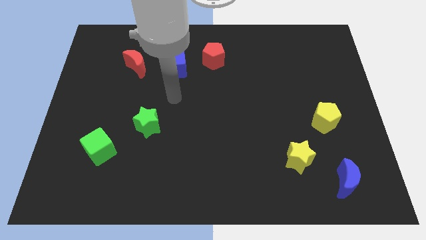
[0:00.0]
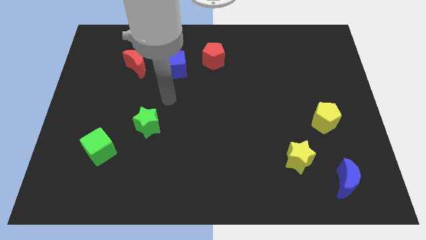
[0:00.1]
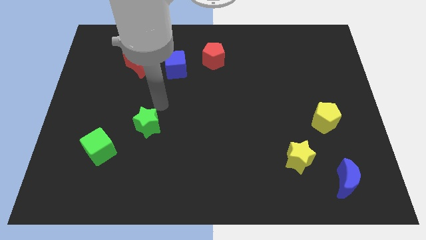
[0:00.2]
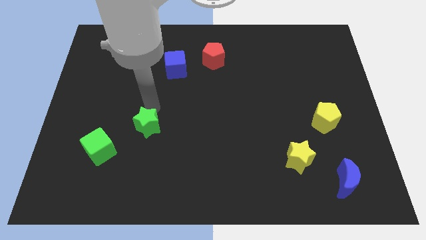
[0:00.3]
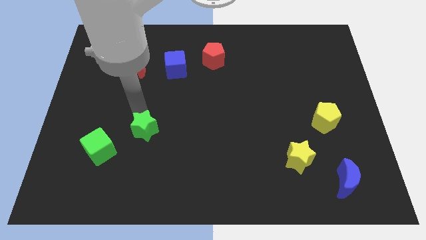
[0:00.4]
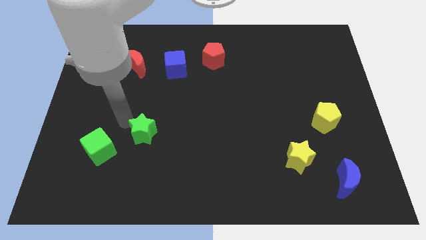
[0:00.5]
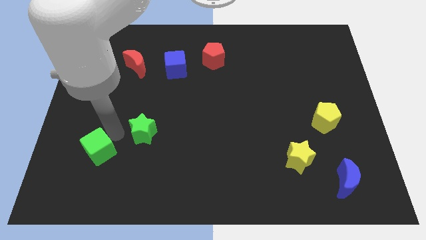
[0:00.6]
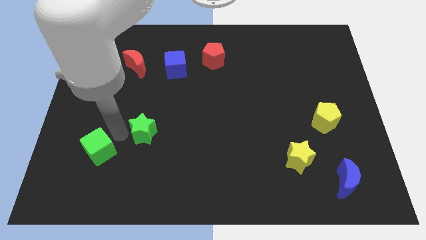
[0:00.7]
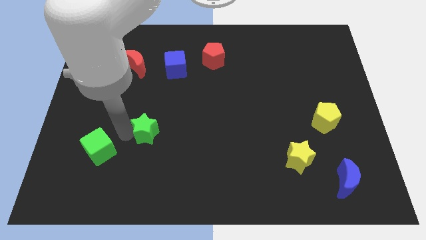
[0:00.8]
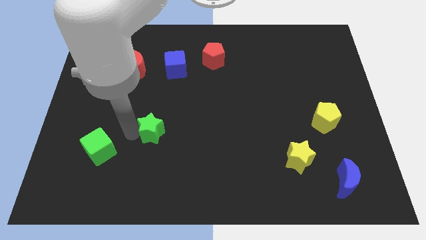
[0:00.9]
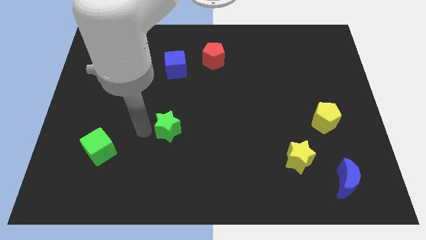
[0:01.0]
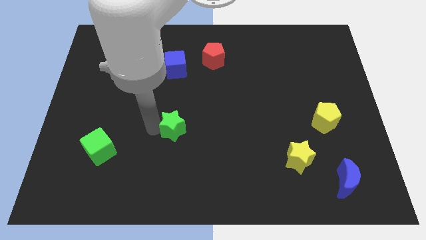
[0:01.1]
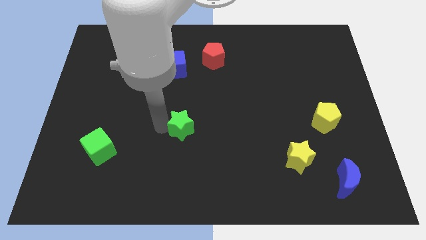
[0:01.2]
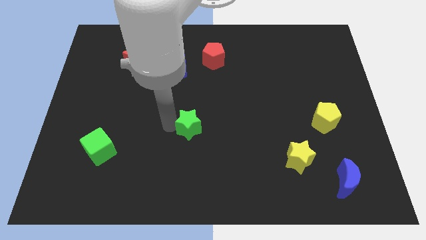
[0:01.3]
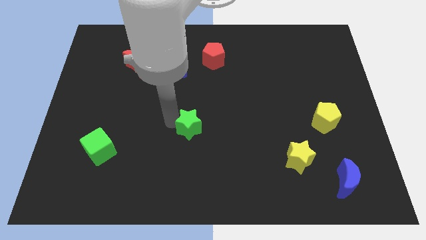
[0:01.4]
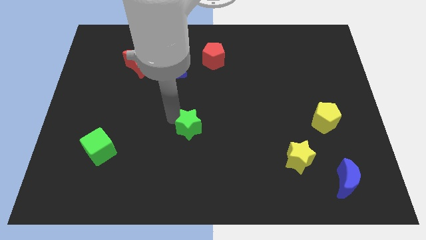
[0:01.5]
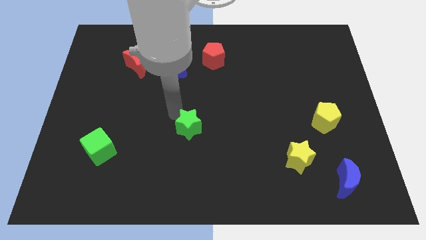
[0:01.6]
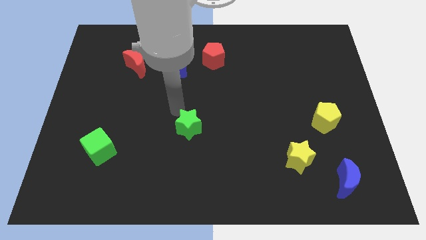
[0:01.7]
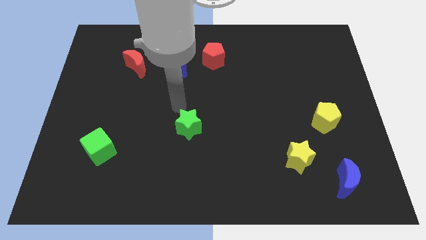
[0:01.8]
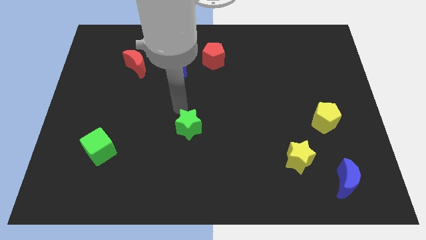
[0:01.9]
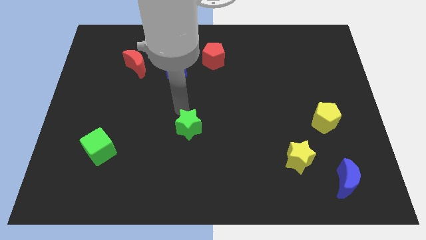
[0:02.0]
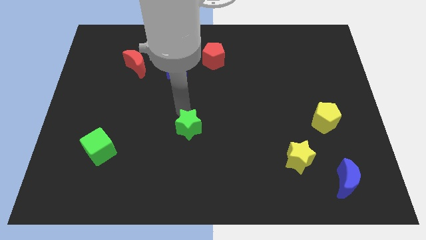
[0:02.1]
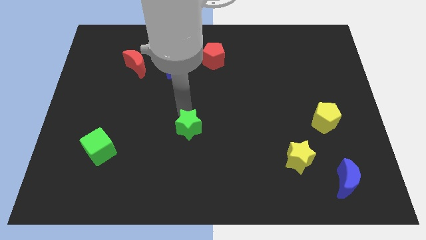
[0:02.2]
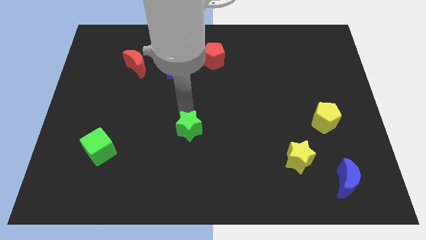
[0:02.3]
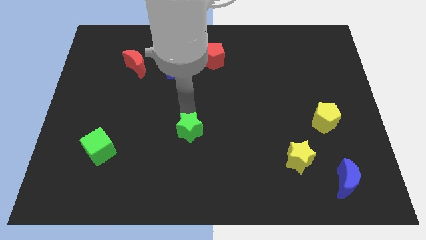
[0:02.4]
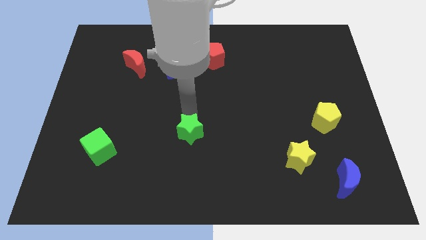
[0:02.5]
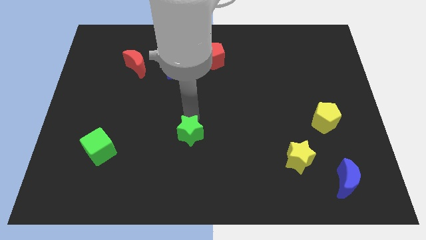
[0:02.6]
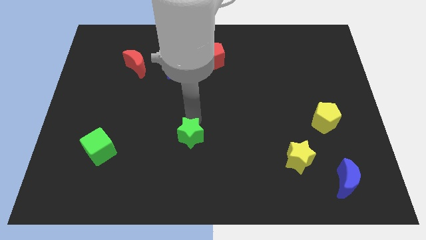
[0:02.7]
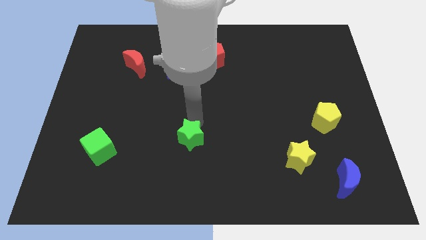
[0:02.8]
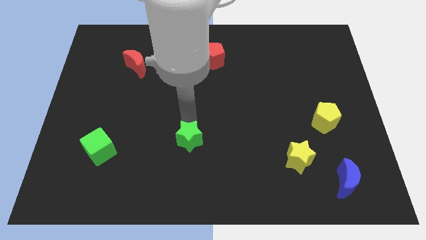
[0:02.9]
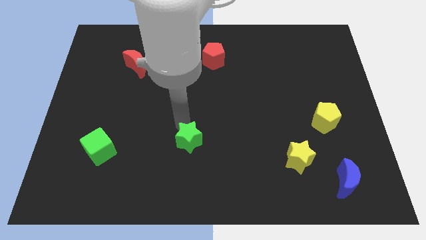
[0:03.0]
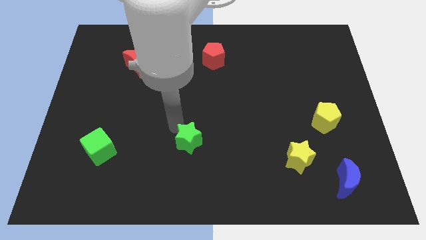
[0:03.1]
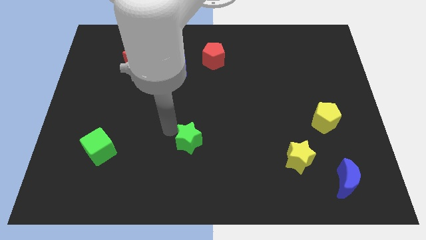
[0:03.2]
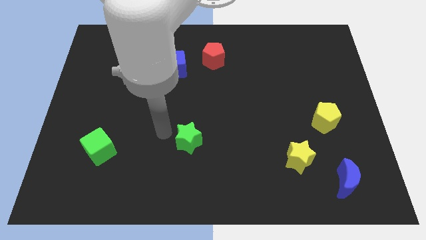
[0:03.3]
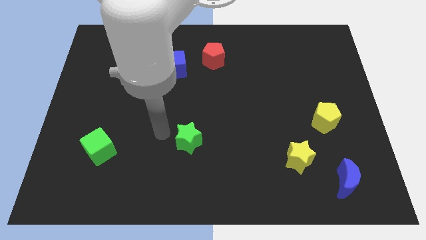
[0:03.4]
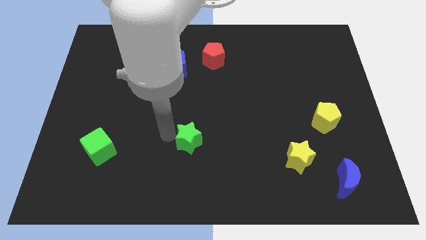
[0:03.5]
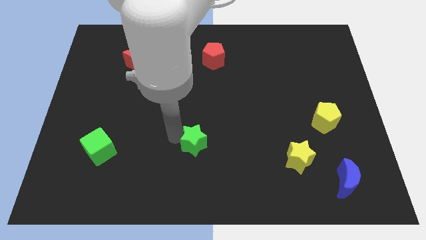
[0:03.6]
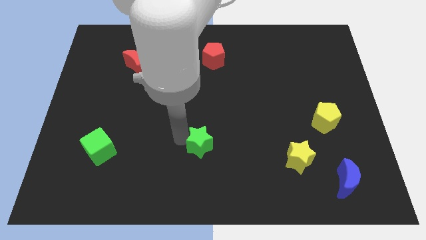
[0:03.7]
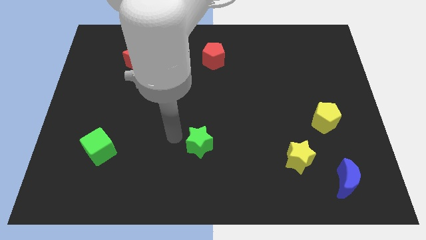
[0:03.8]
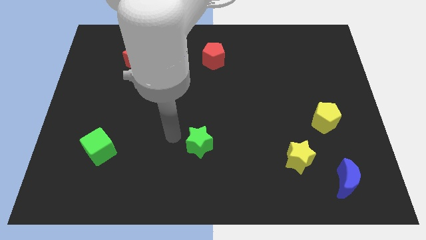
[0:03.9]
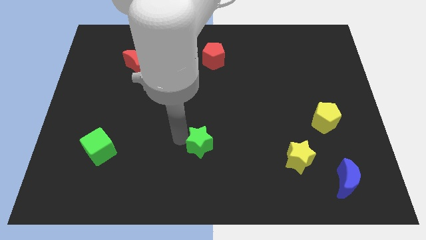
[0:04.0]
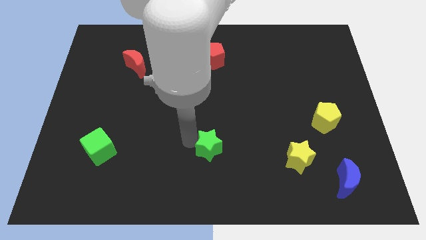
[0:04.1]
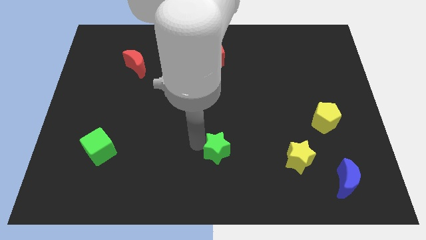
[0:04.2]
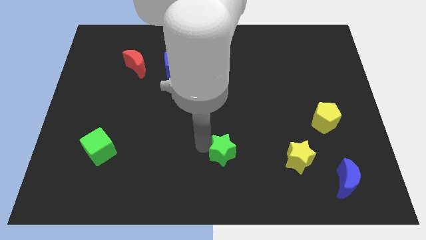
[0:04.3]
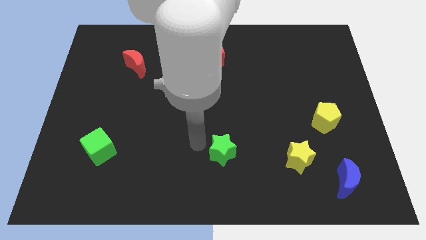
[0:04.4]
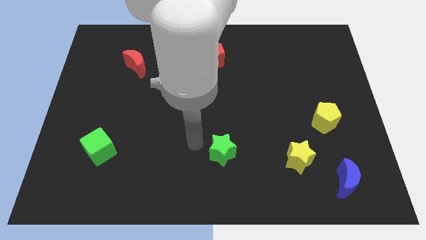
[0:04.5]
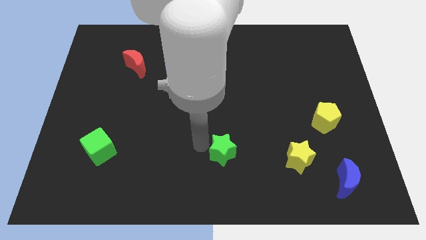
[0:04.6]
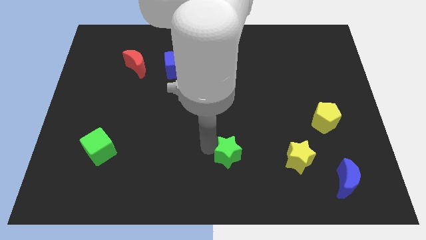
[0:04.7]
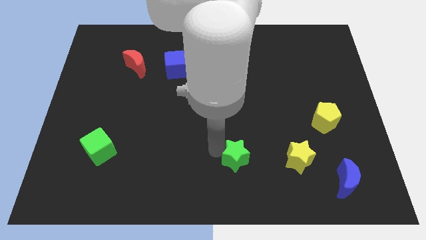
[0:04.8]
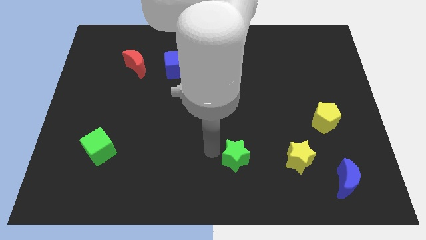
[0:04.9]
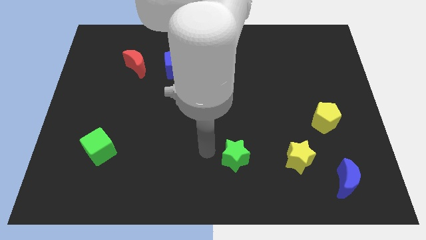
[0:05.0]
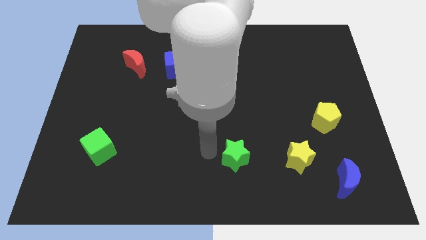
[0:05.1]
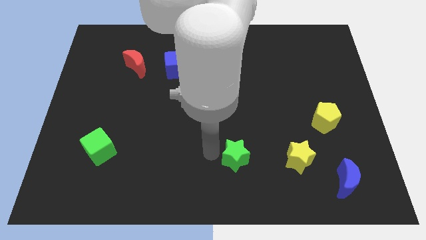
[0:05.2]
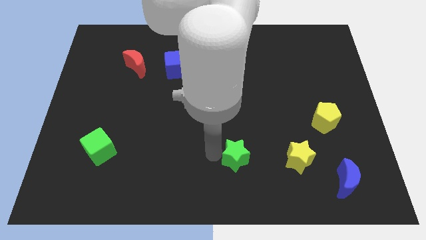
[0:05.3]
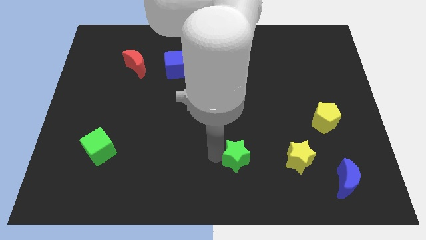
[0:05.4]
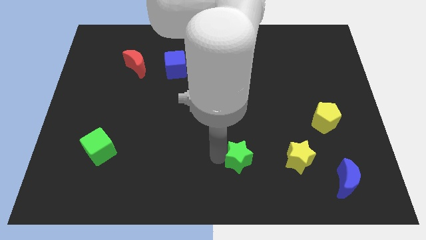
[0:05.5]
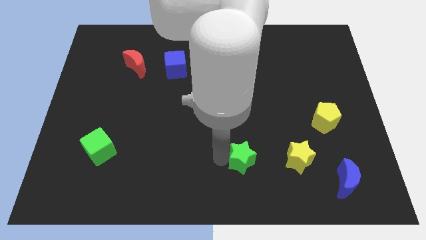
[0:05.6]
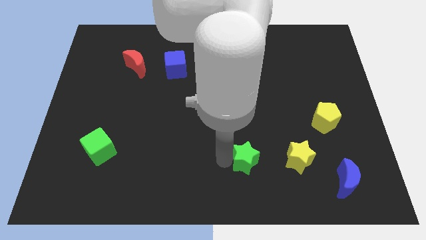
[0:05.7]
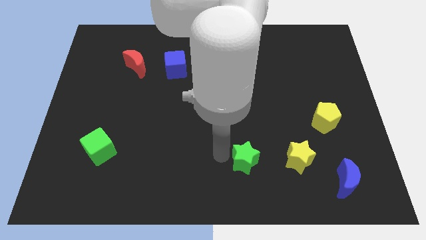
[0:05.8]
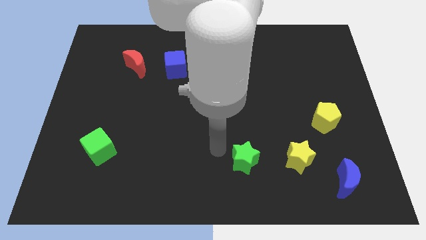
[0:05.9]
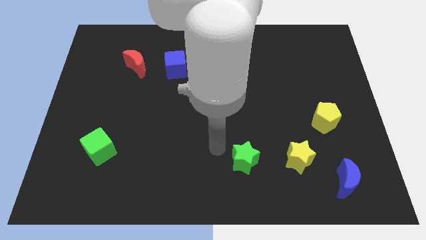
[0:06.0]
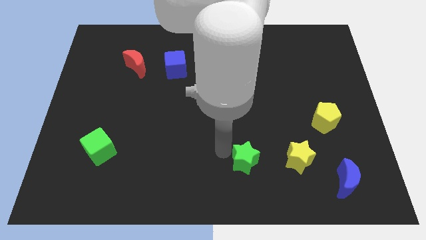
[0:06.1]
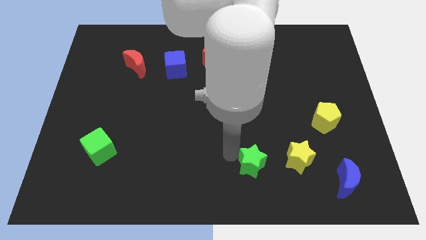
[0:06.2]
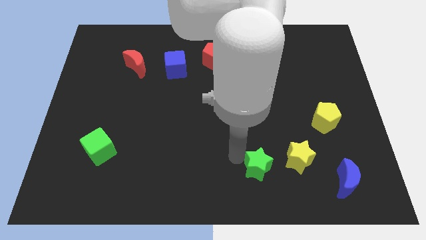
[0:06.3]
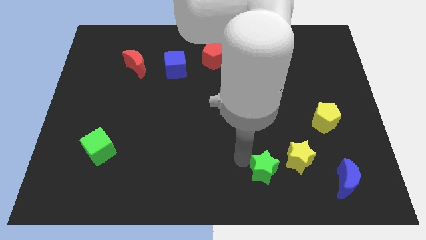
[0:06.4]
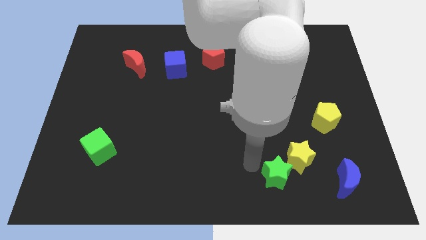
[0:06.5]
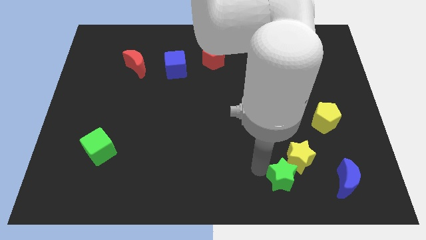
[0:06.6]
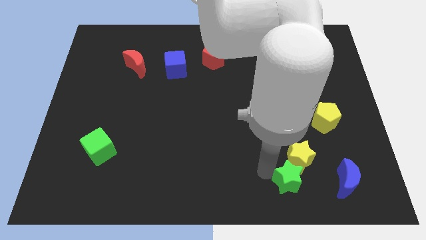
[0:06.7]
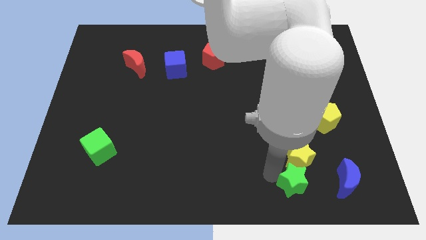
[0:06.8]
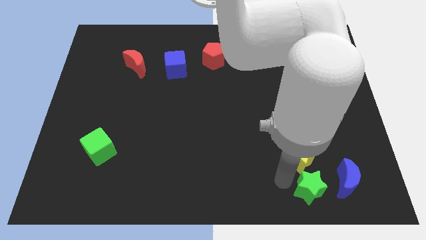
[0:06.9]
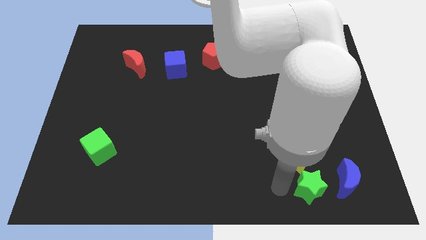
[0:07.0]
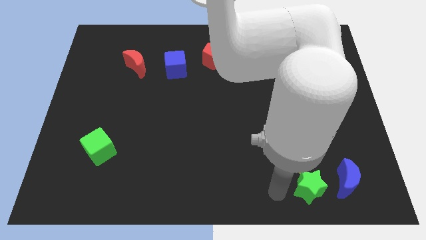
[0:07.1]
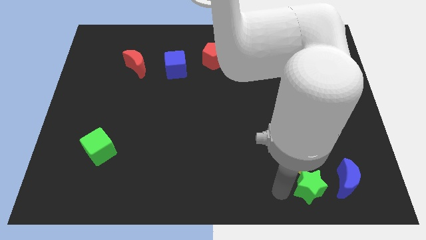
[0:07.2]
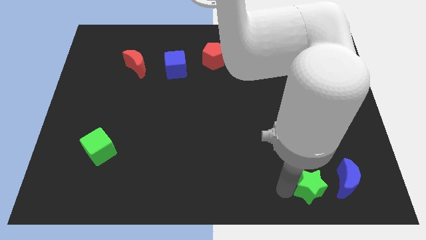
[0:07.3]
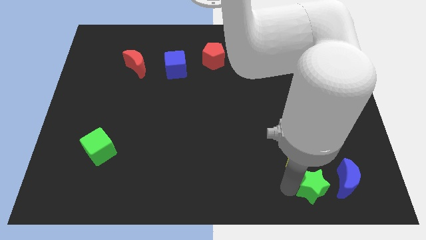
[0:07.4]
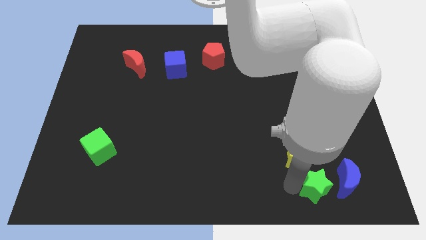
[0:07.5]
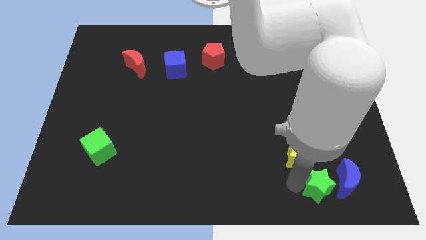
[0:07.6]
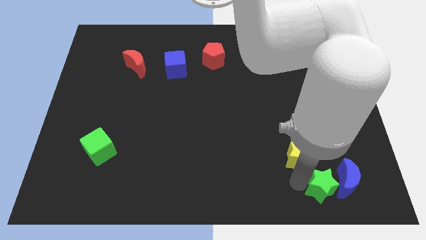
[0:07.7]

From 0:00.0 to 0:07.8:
move the green star next to the blue moon
